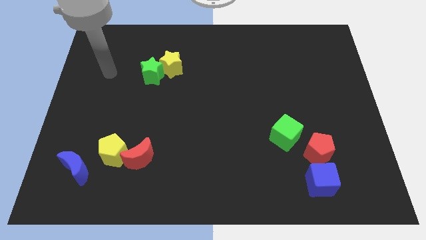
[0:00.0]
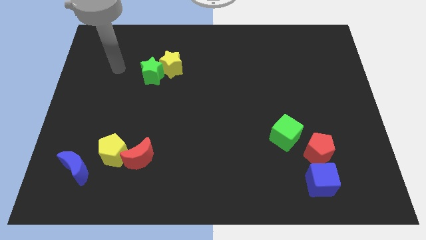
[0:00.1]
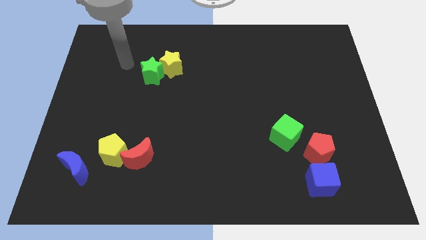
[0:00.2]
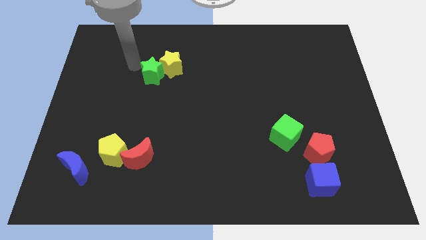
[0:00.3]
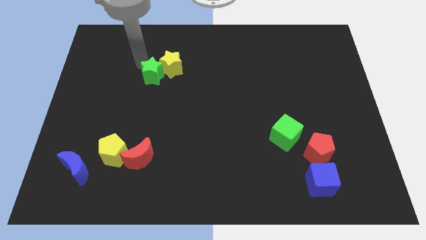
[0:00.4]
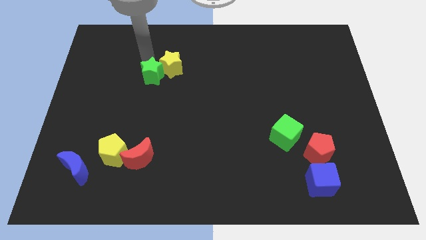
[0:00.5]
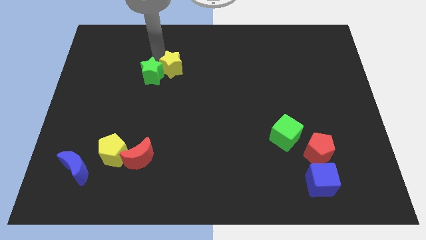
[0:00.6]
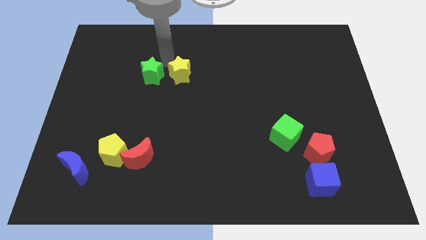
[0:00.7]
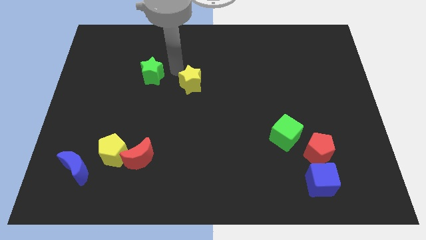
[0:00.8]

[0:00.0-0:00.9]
pull the green star apart from the yellow star

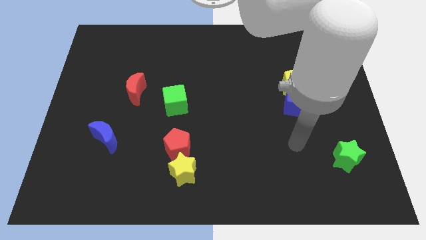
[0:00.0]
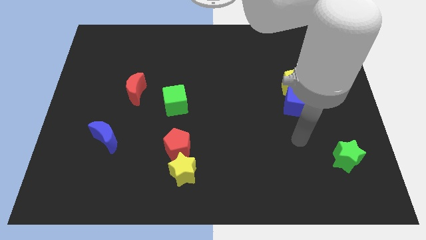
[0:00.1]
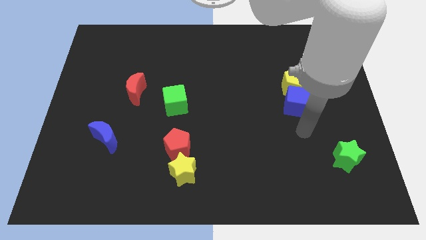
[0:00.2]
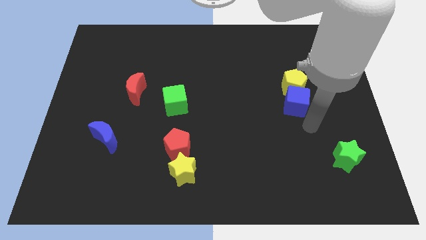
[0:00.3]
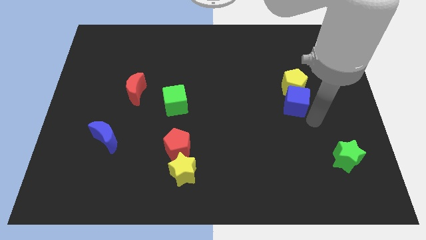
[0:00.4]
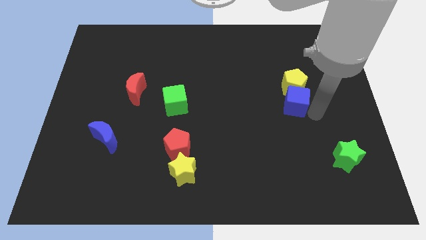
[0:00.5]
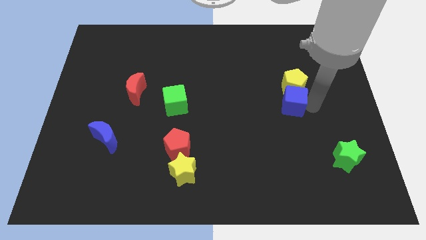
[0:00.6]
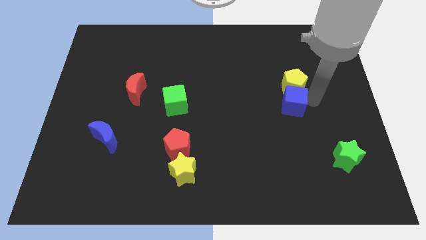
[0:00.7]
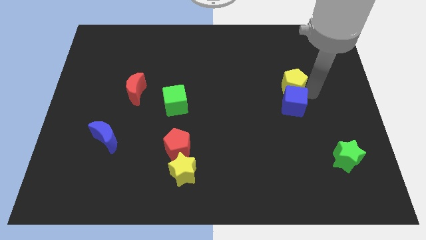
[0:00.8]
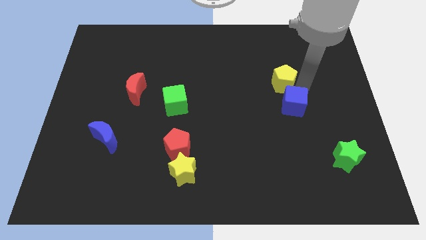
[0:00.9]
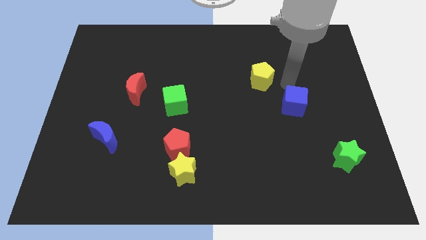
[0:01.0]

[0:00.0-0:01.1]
pull the blue cube apart from the yellow pentagon

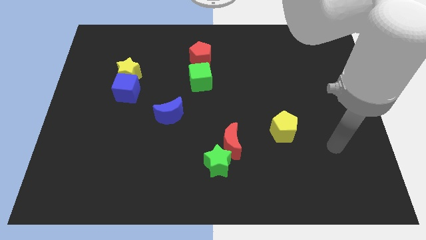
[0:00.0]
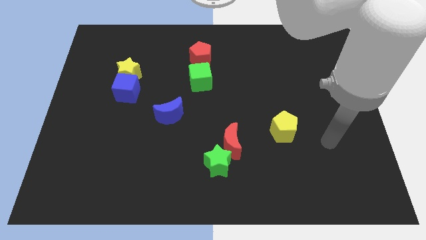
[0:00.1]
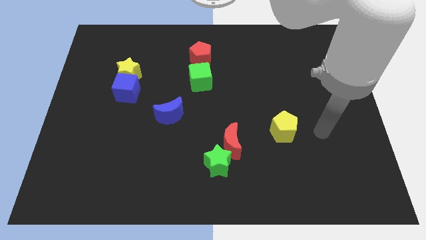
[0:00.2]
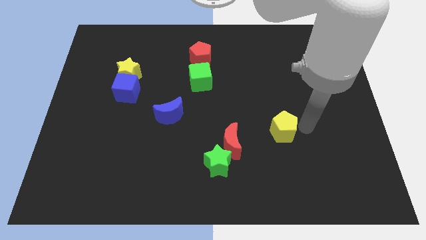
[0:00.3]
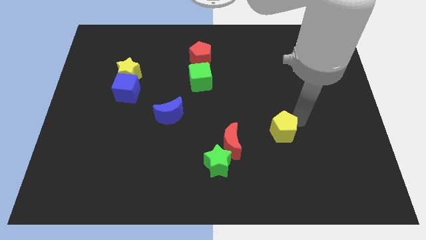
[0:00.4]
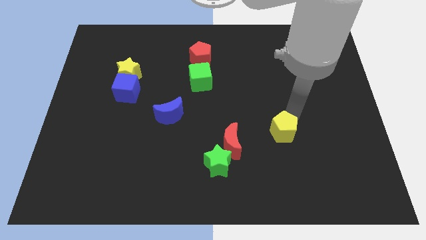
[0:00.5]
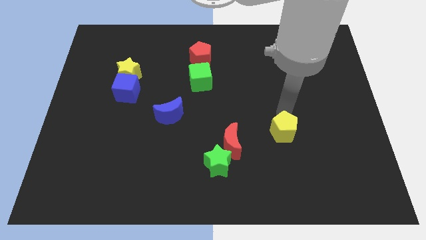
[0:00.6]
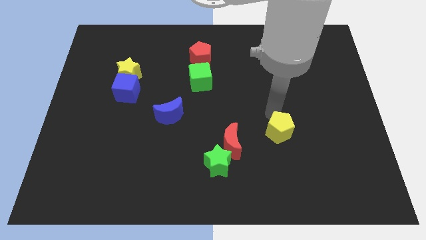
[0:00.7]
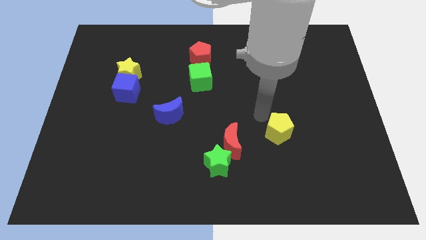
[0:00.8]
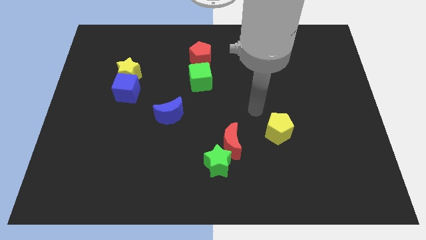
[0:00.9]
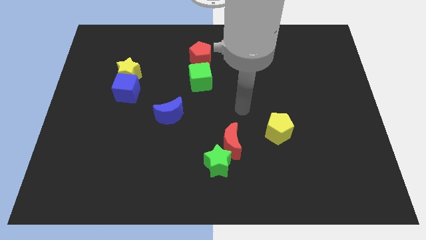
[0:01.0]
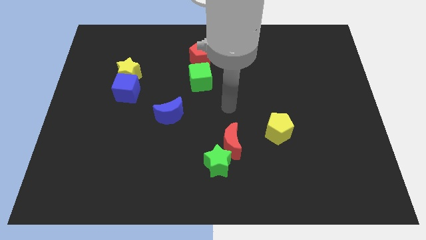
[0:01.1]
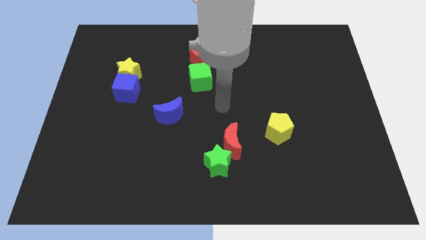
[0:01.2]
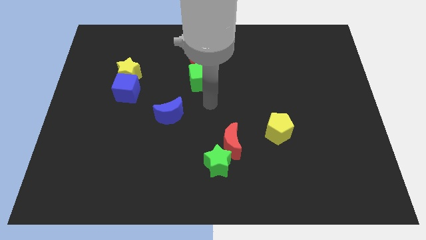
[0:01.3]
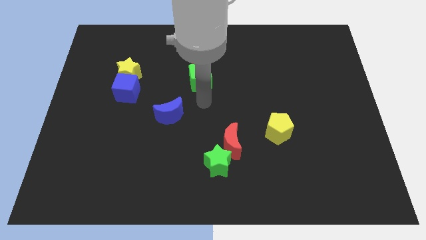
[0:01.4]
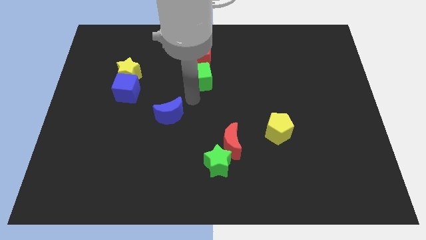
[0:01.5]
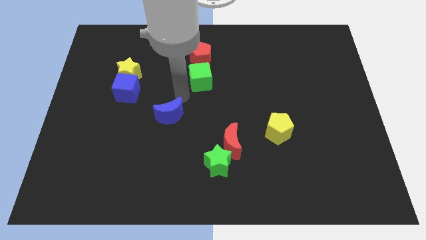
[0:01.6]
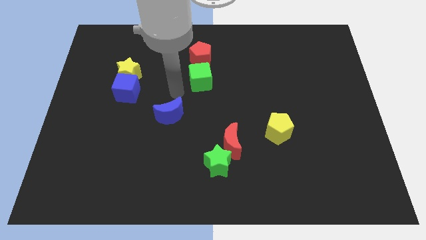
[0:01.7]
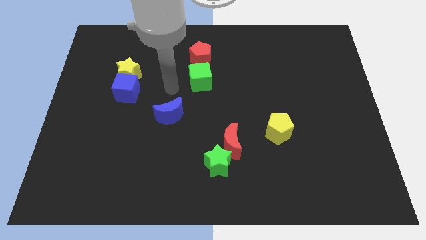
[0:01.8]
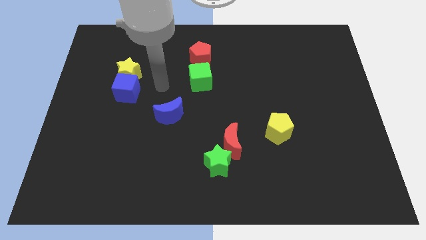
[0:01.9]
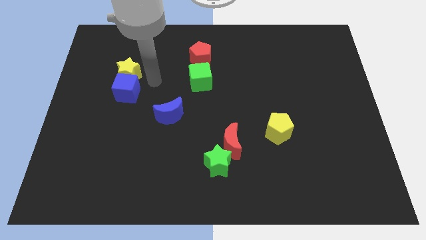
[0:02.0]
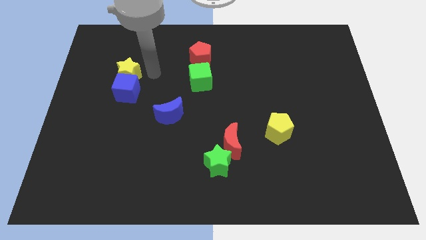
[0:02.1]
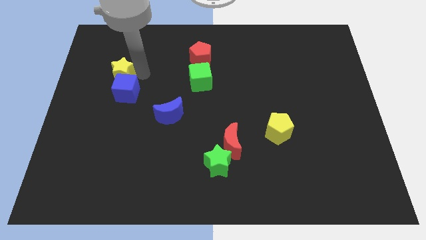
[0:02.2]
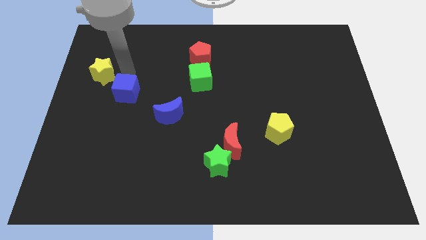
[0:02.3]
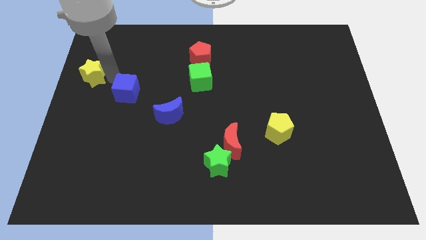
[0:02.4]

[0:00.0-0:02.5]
pull the blue cube apart from the yellow star

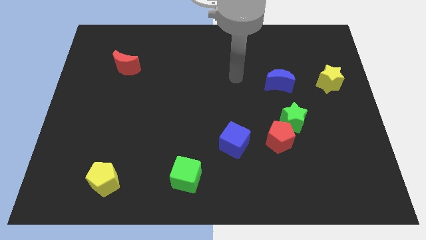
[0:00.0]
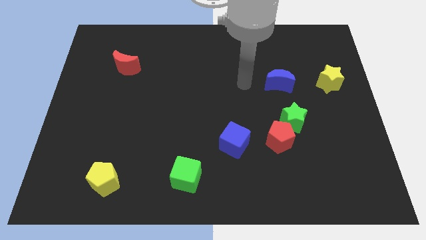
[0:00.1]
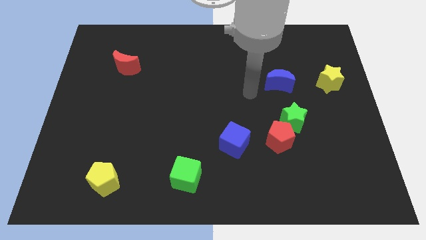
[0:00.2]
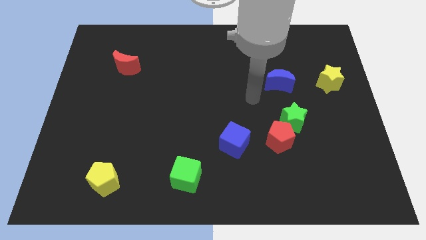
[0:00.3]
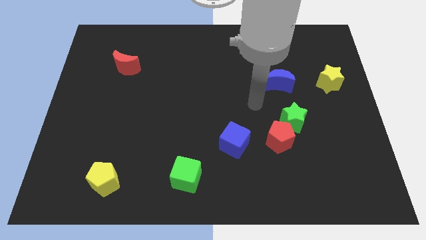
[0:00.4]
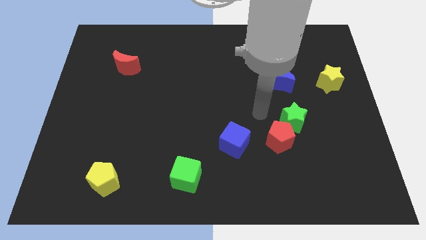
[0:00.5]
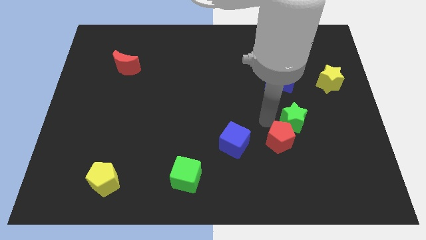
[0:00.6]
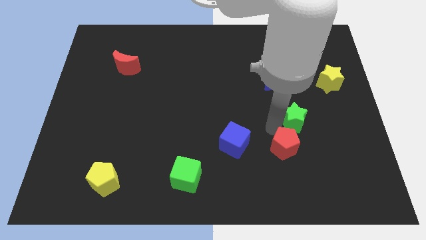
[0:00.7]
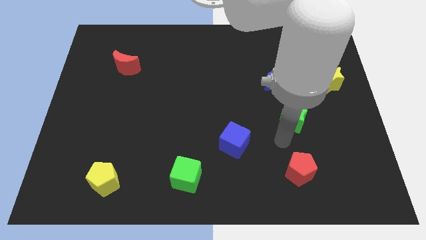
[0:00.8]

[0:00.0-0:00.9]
separate the green star from the red pentagon

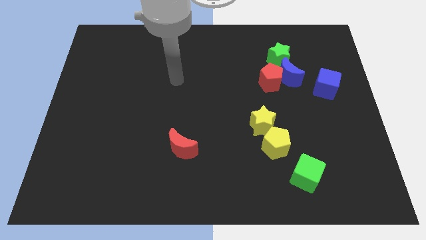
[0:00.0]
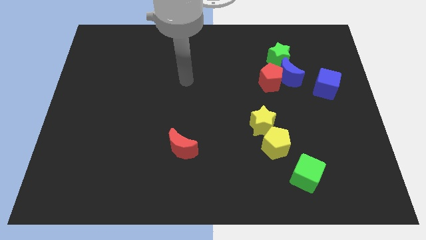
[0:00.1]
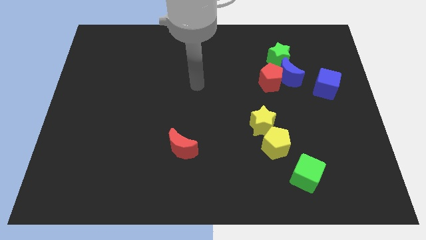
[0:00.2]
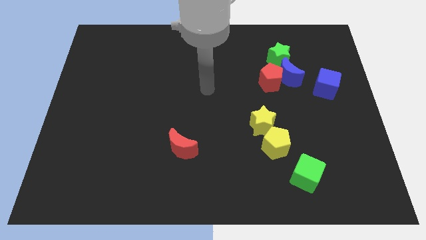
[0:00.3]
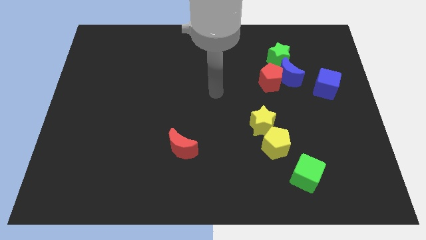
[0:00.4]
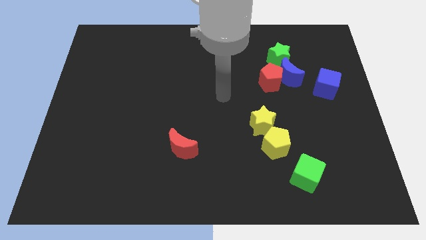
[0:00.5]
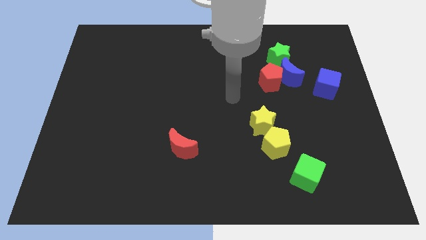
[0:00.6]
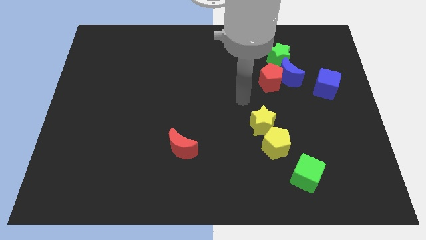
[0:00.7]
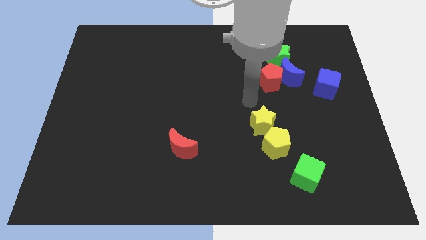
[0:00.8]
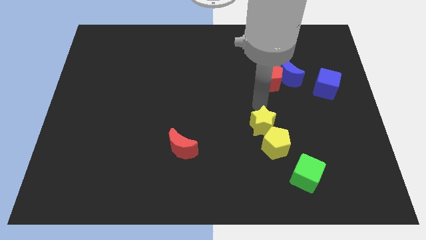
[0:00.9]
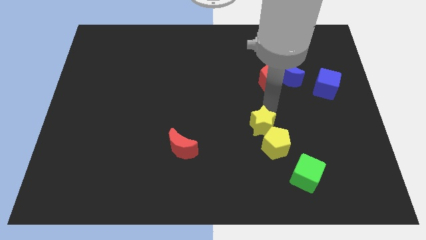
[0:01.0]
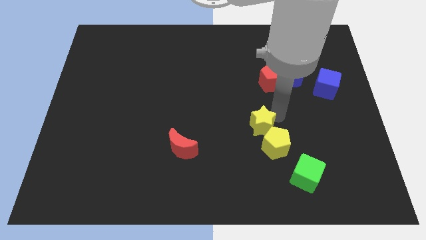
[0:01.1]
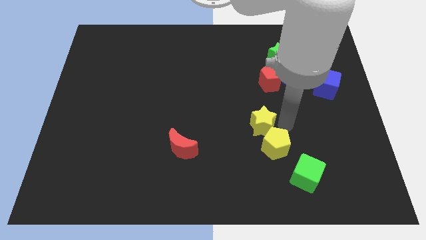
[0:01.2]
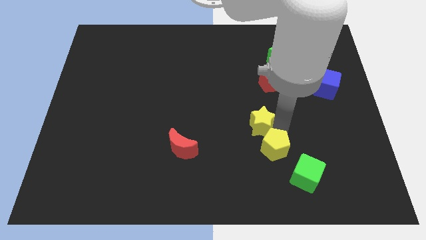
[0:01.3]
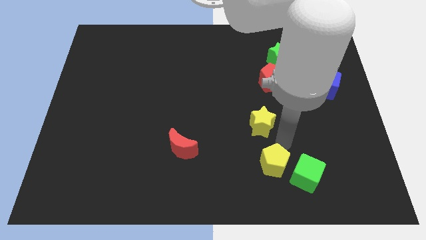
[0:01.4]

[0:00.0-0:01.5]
move the yellow star away from the yellow pentagon

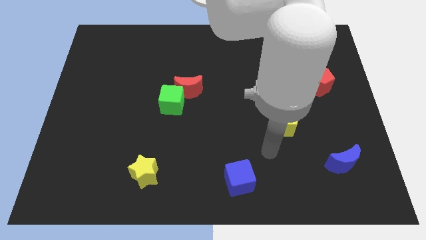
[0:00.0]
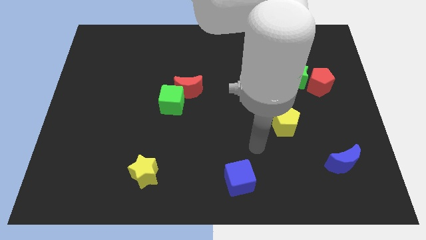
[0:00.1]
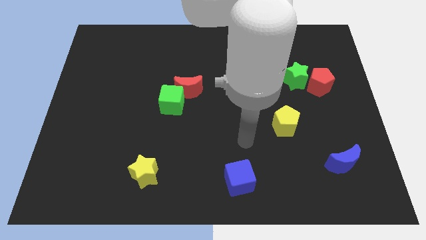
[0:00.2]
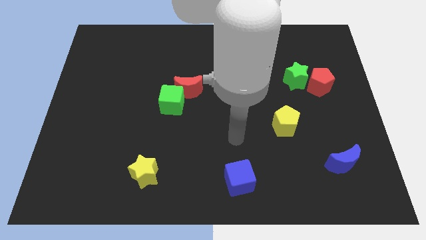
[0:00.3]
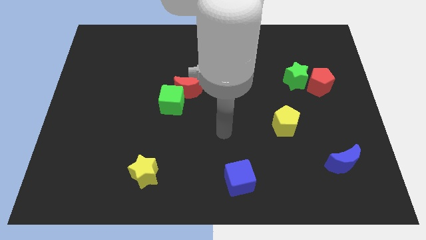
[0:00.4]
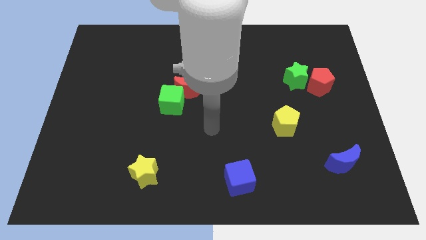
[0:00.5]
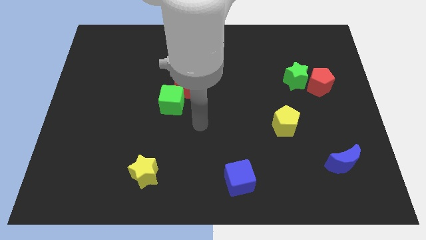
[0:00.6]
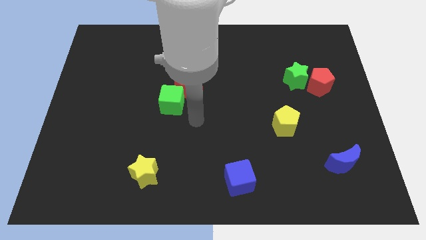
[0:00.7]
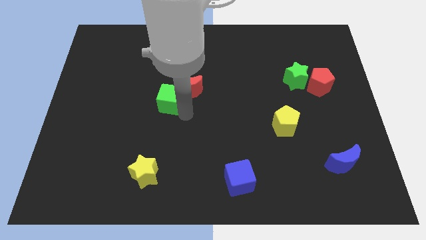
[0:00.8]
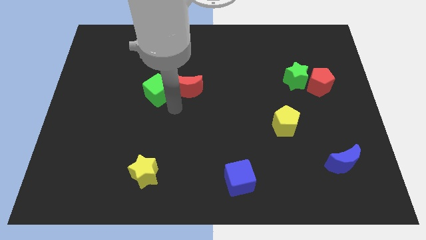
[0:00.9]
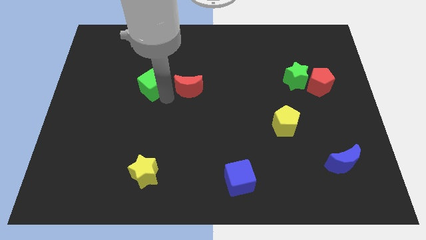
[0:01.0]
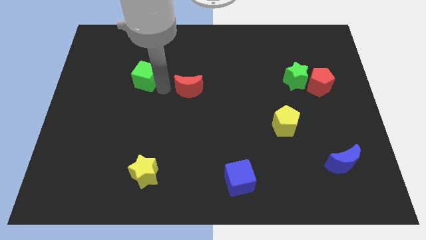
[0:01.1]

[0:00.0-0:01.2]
separate the red moon from the green cube

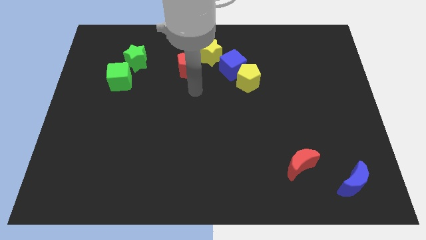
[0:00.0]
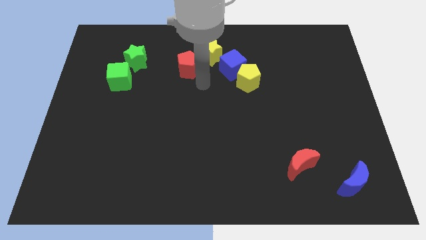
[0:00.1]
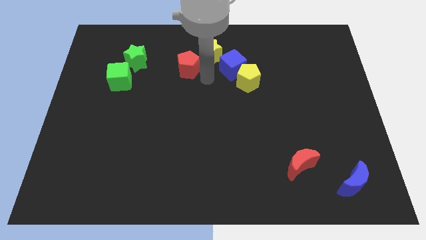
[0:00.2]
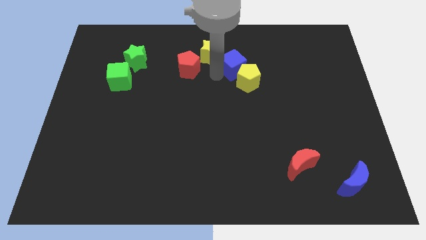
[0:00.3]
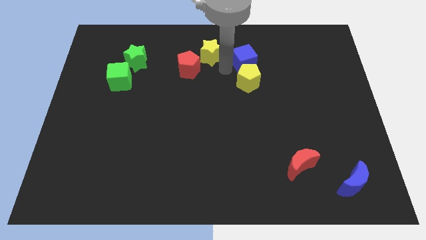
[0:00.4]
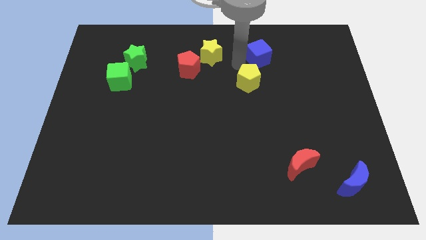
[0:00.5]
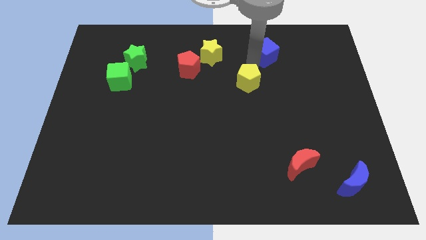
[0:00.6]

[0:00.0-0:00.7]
move the yellow pentagon away from the blue cube

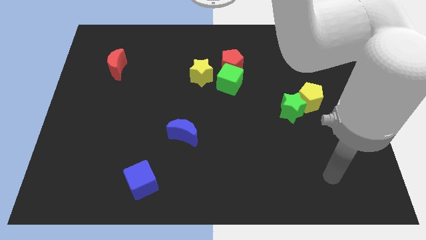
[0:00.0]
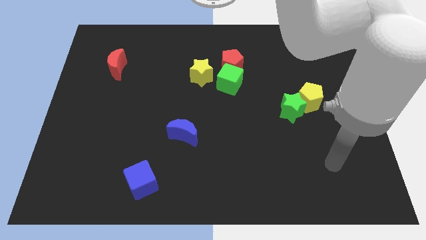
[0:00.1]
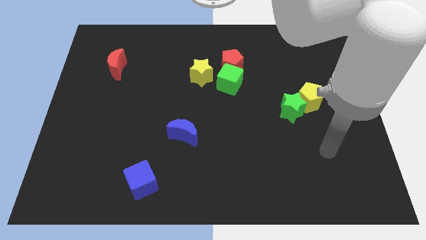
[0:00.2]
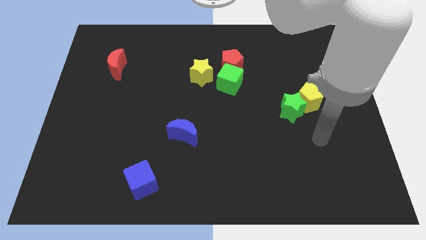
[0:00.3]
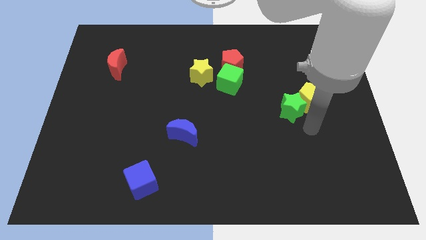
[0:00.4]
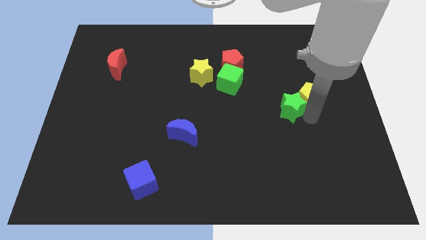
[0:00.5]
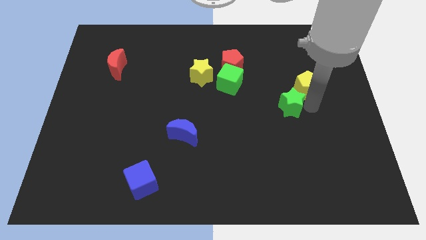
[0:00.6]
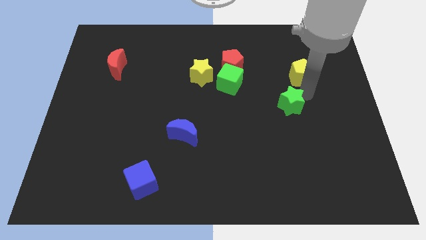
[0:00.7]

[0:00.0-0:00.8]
pull the green star apart from the yellow pentagon
